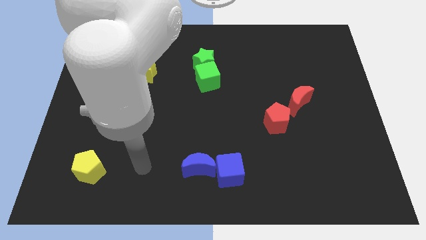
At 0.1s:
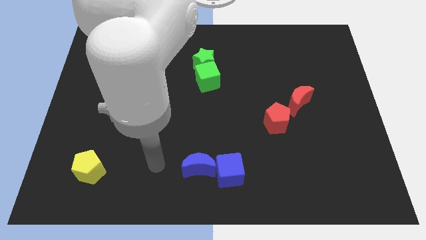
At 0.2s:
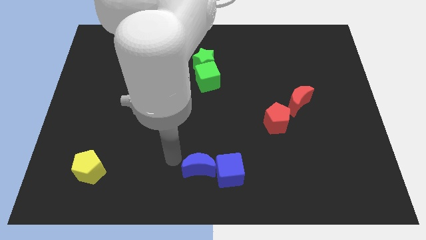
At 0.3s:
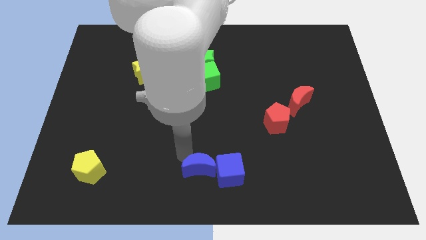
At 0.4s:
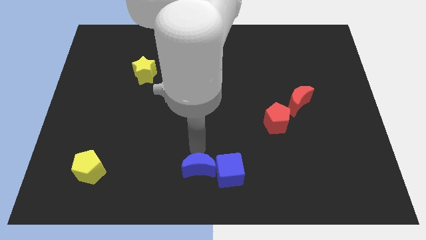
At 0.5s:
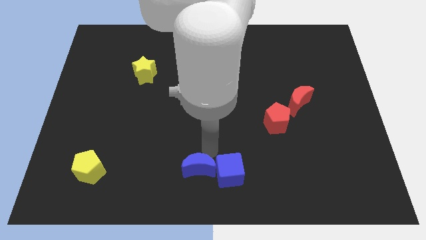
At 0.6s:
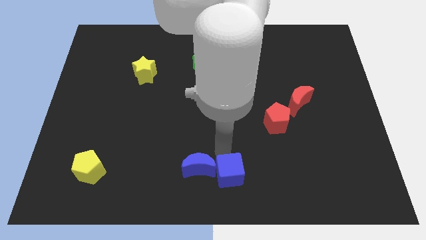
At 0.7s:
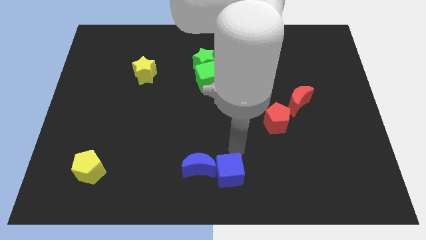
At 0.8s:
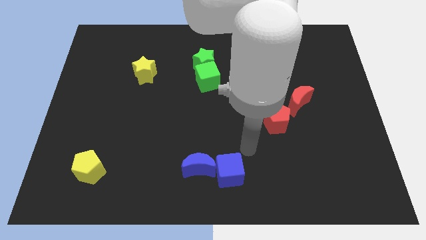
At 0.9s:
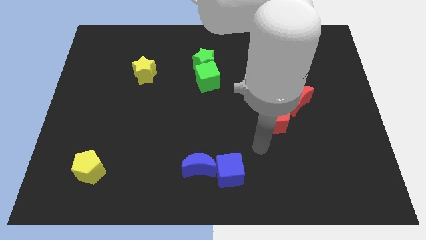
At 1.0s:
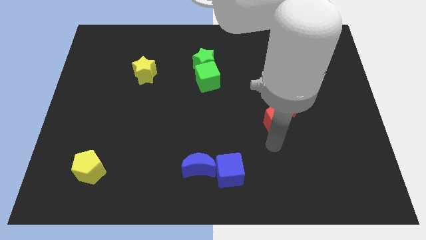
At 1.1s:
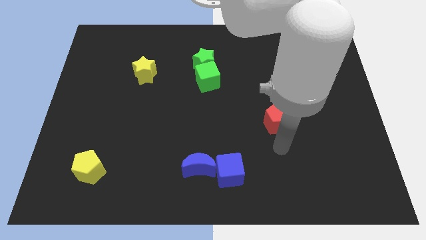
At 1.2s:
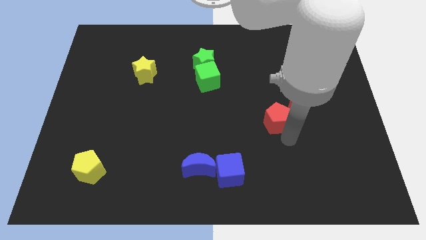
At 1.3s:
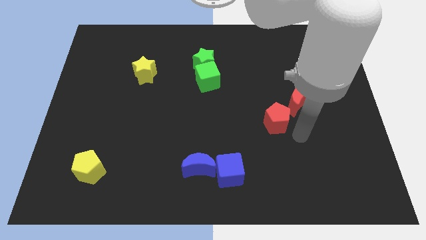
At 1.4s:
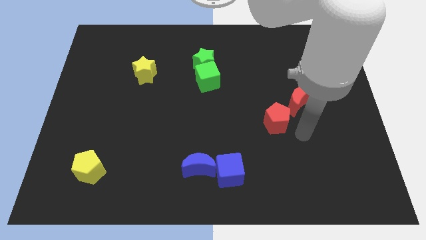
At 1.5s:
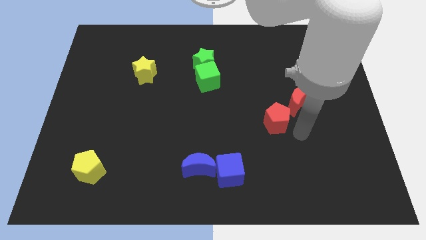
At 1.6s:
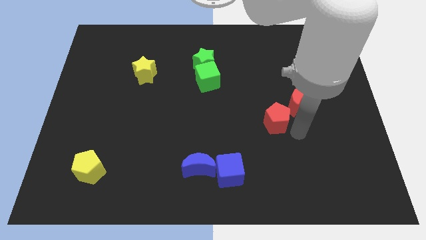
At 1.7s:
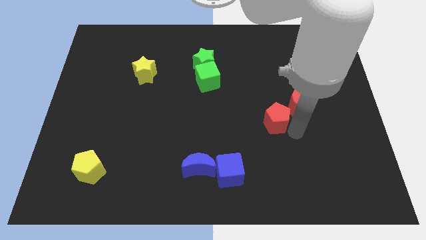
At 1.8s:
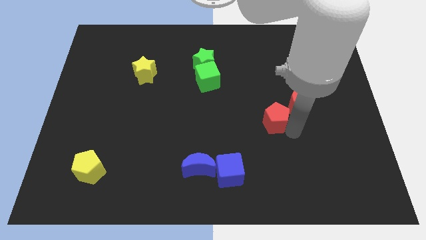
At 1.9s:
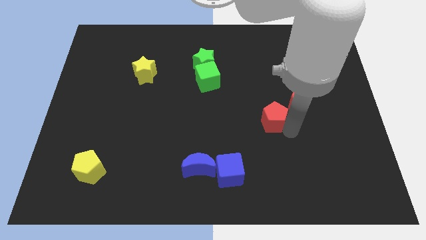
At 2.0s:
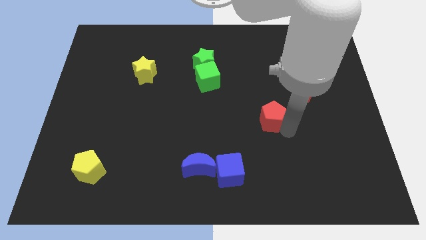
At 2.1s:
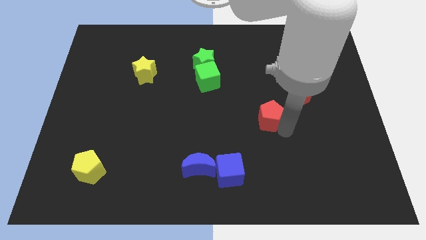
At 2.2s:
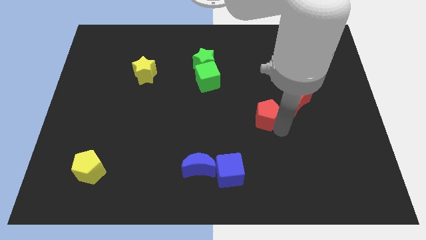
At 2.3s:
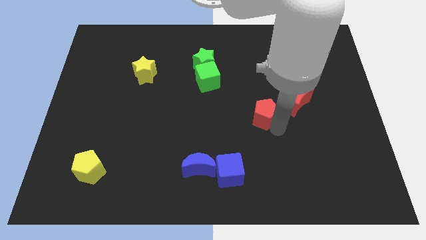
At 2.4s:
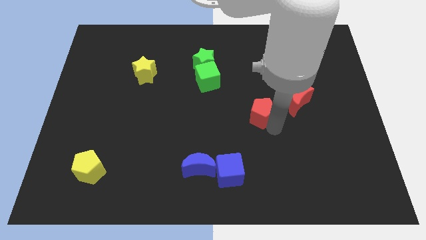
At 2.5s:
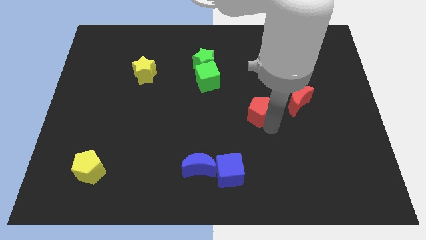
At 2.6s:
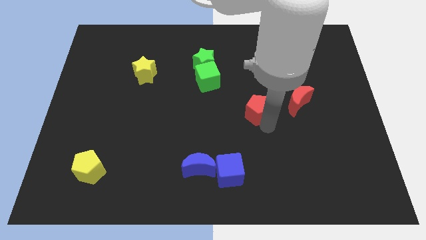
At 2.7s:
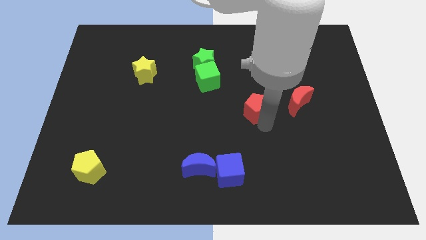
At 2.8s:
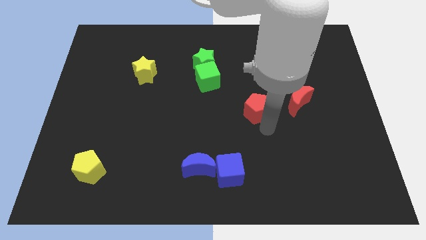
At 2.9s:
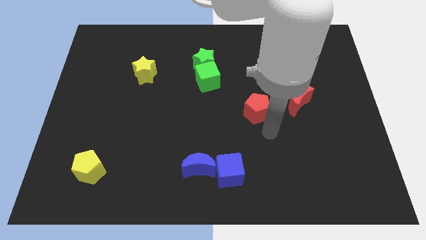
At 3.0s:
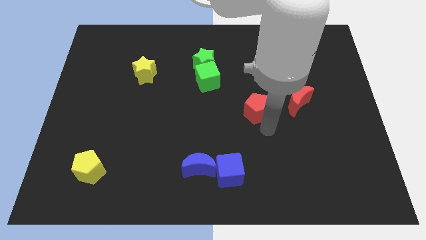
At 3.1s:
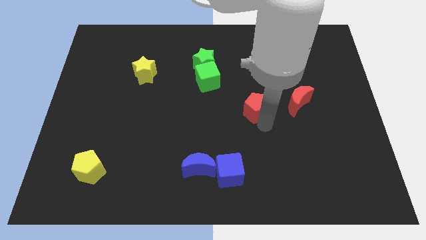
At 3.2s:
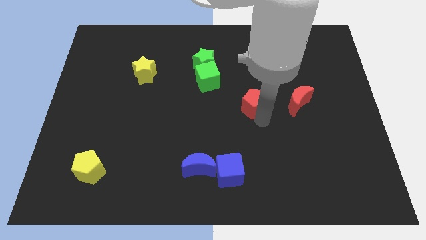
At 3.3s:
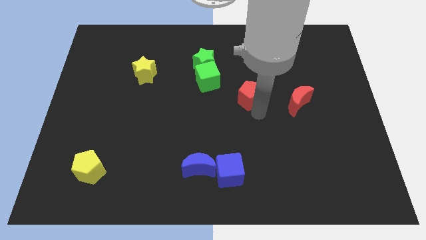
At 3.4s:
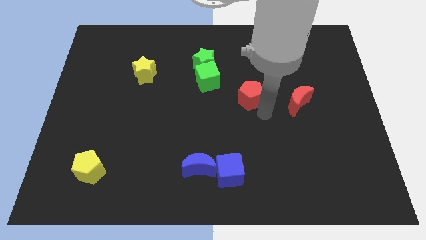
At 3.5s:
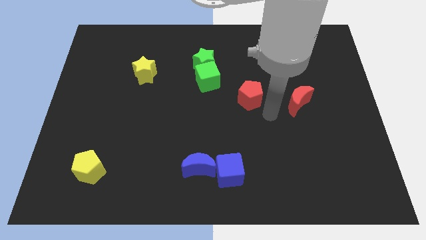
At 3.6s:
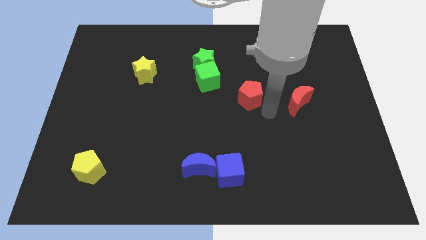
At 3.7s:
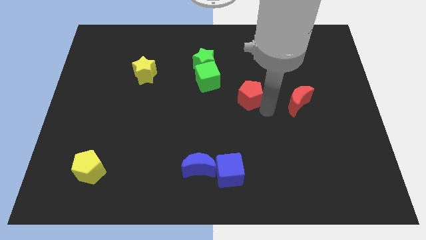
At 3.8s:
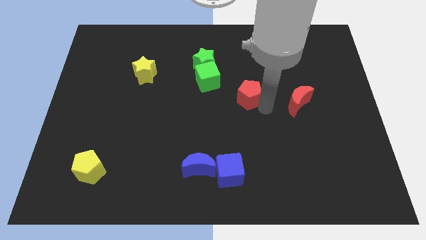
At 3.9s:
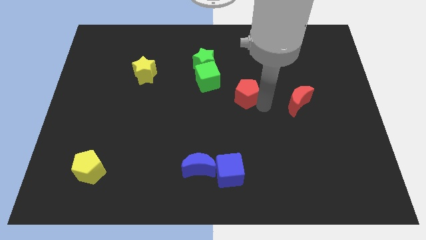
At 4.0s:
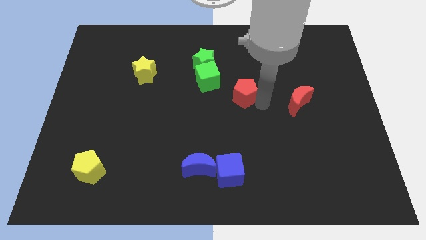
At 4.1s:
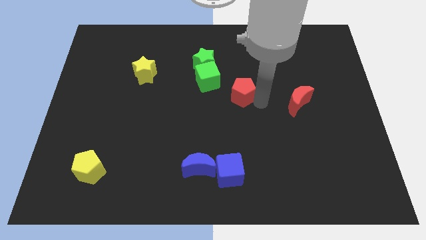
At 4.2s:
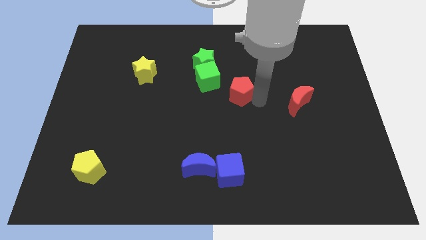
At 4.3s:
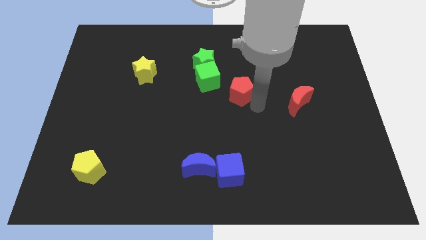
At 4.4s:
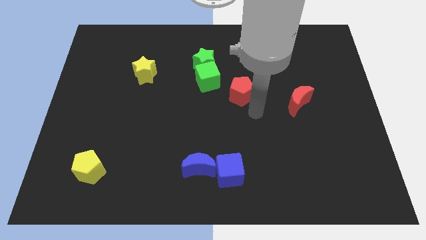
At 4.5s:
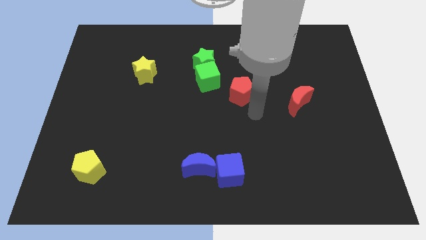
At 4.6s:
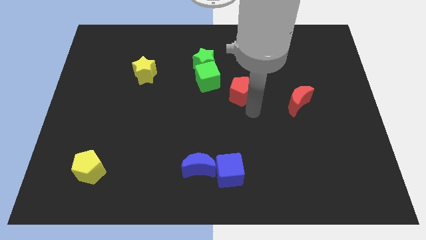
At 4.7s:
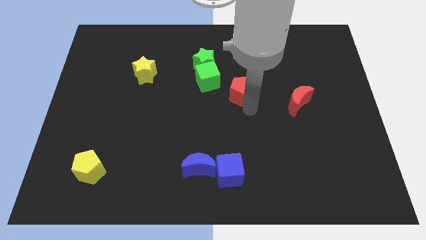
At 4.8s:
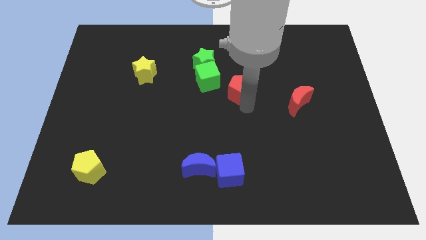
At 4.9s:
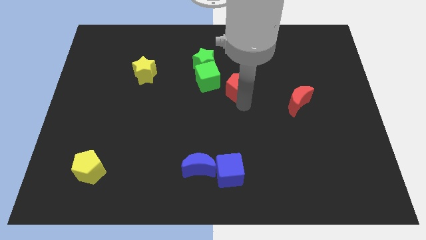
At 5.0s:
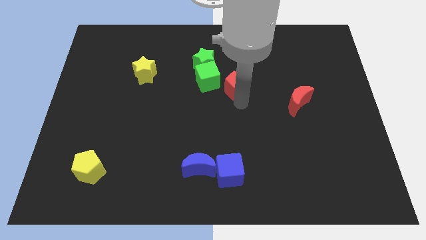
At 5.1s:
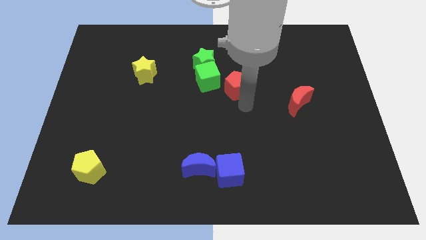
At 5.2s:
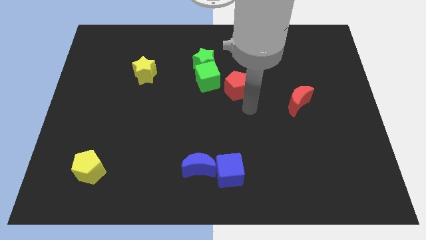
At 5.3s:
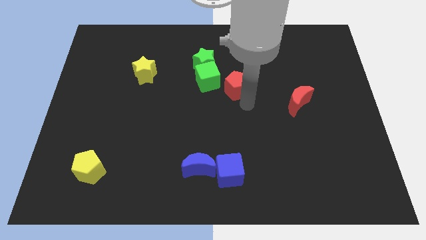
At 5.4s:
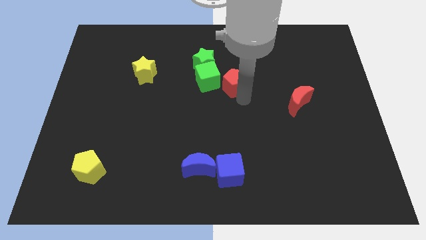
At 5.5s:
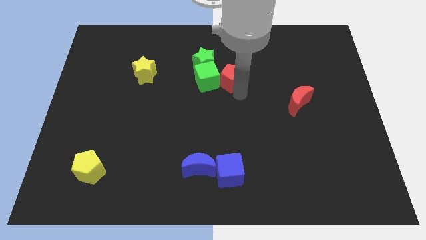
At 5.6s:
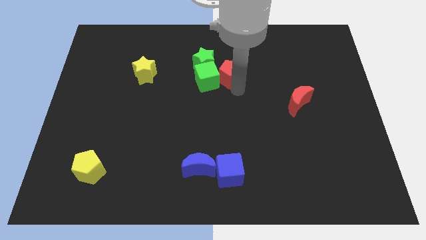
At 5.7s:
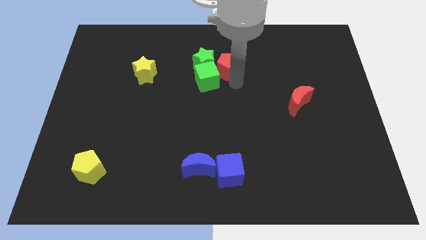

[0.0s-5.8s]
move the red pentagon close to the green star

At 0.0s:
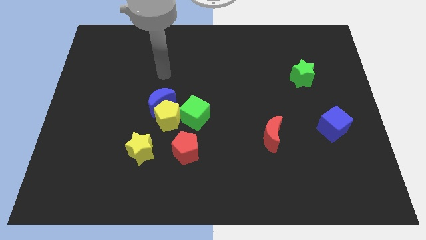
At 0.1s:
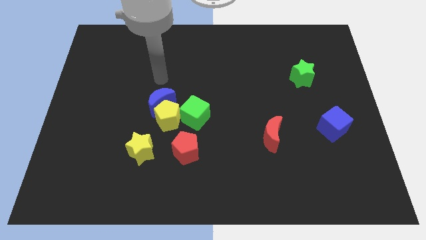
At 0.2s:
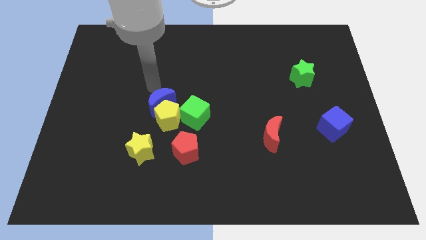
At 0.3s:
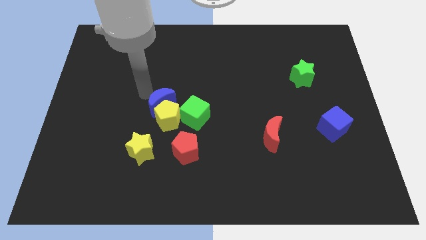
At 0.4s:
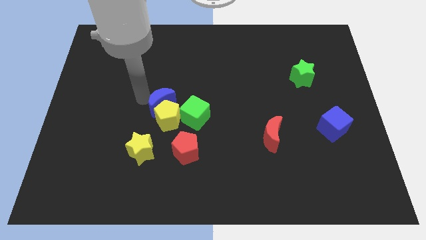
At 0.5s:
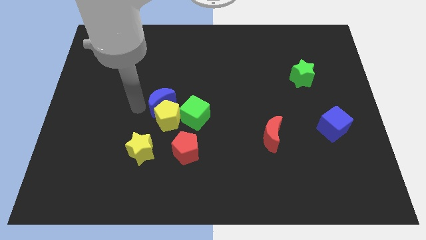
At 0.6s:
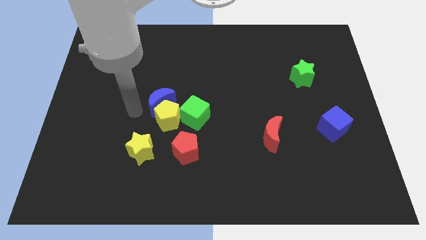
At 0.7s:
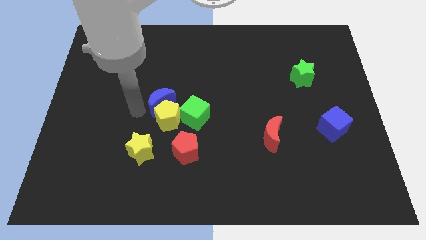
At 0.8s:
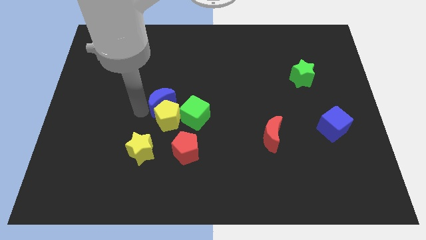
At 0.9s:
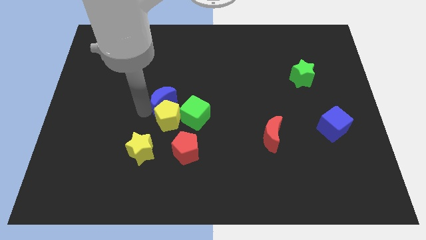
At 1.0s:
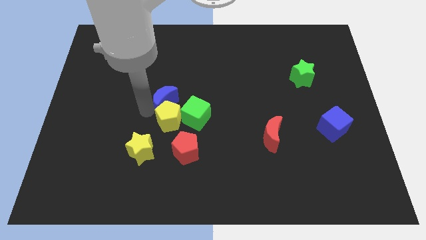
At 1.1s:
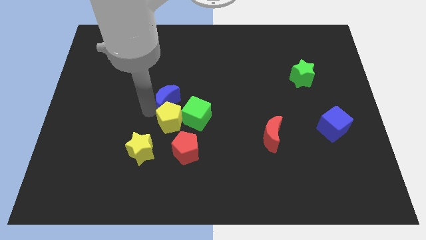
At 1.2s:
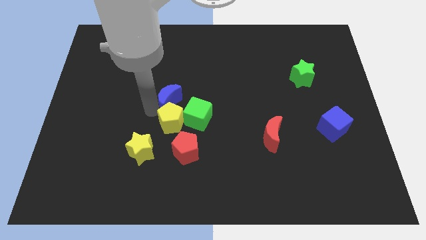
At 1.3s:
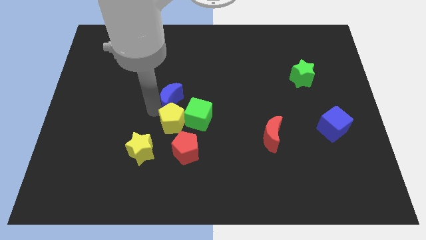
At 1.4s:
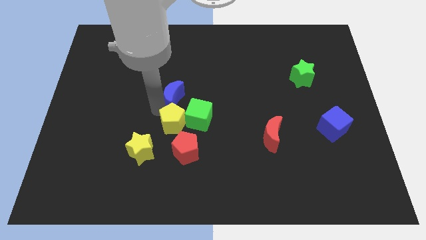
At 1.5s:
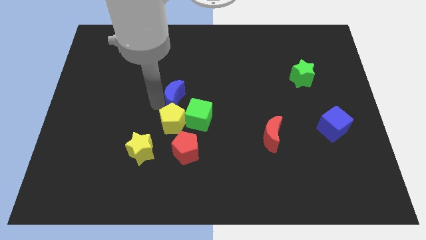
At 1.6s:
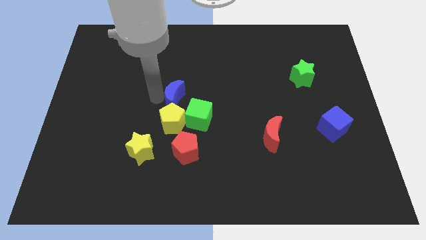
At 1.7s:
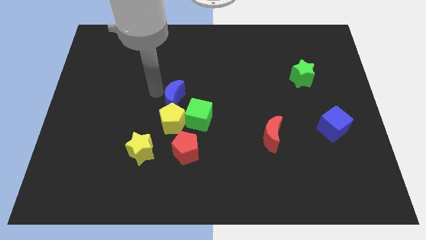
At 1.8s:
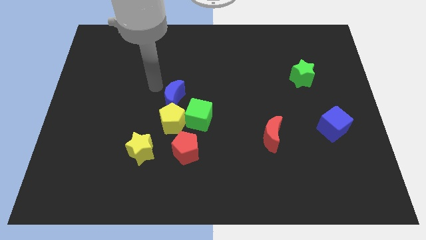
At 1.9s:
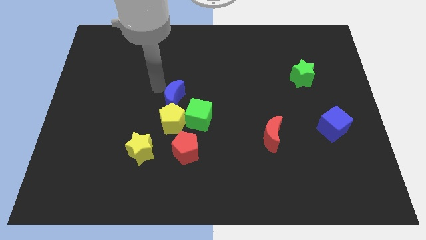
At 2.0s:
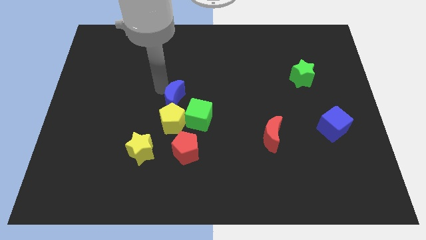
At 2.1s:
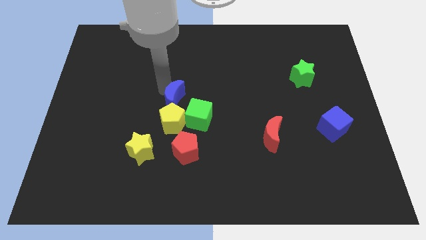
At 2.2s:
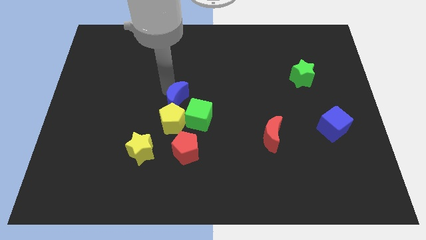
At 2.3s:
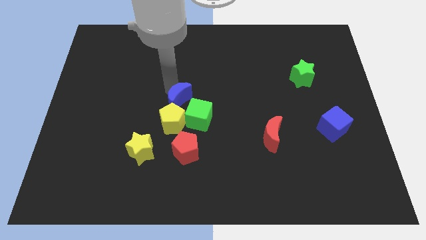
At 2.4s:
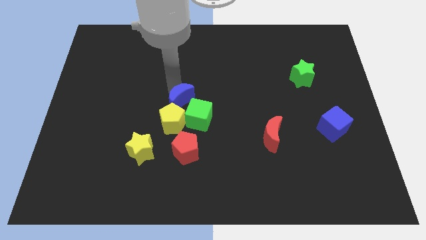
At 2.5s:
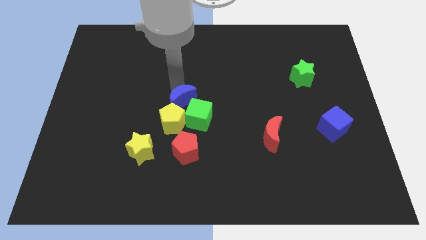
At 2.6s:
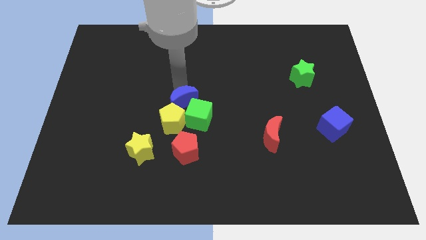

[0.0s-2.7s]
put the blue moon towards the green cube
